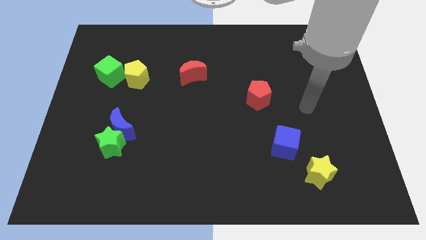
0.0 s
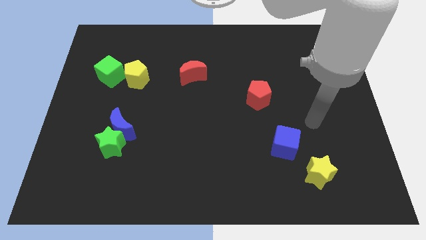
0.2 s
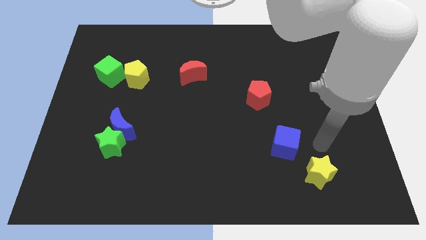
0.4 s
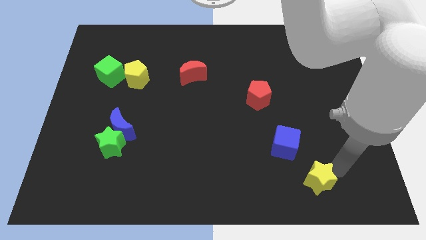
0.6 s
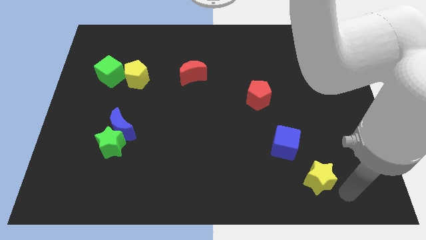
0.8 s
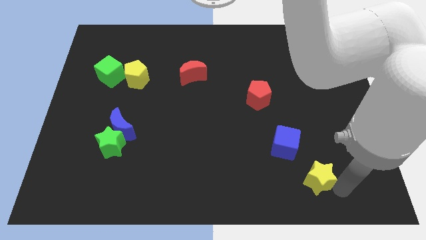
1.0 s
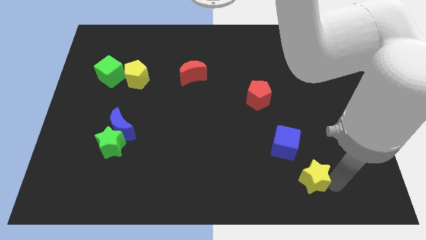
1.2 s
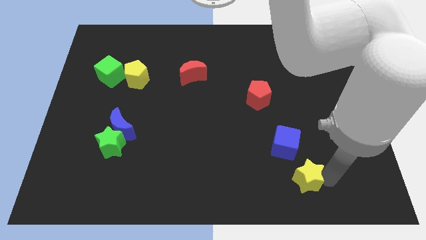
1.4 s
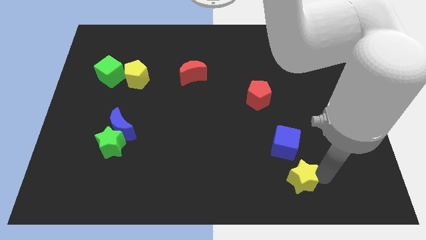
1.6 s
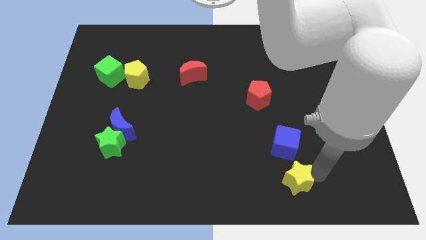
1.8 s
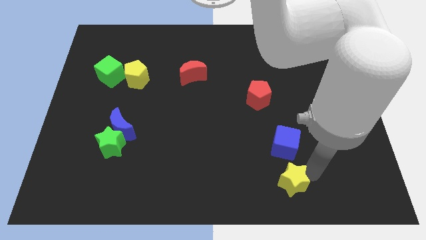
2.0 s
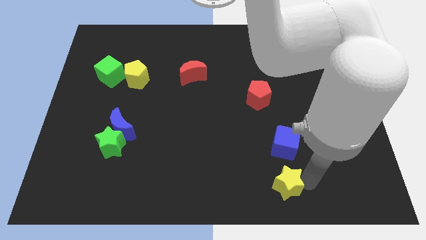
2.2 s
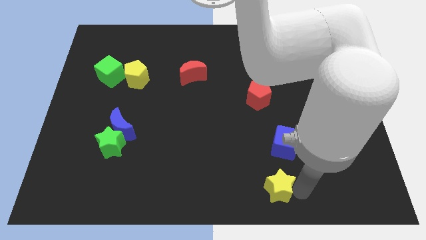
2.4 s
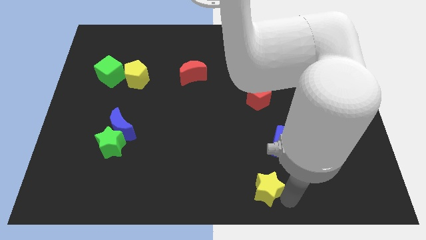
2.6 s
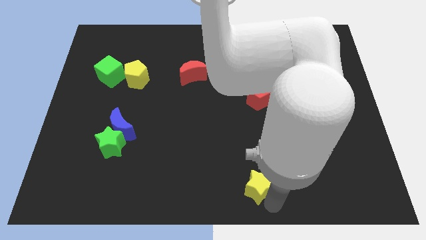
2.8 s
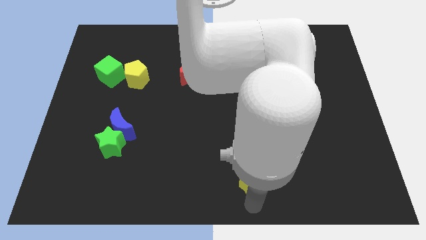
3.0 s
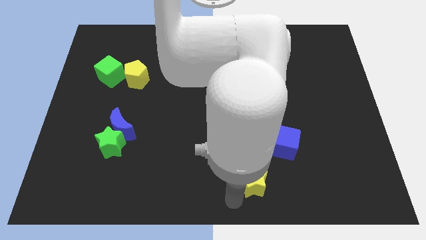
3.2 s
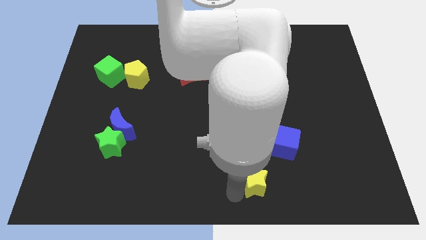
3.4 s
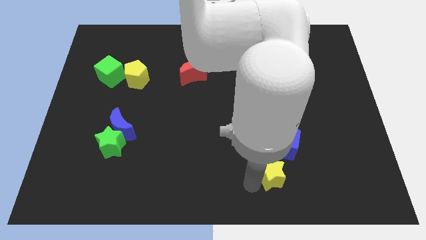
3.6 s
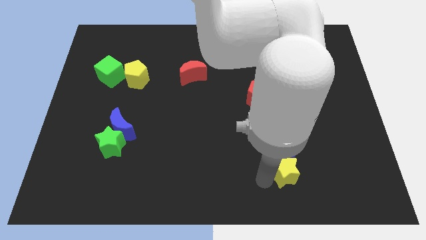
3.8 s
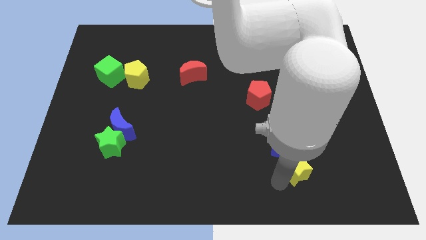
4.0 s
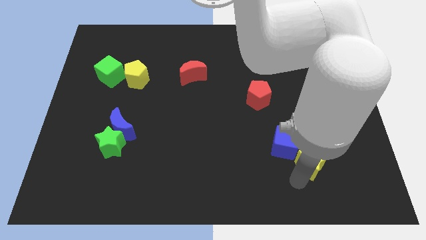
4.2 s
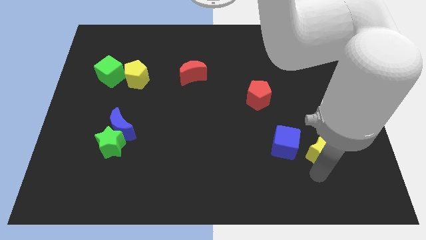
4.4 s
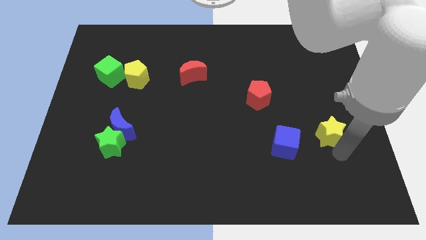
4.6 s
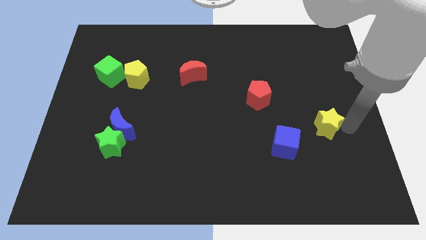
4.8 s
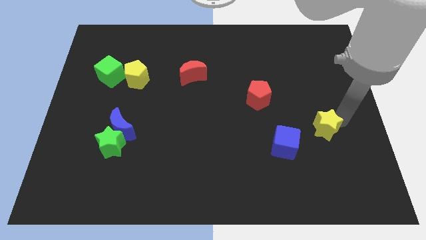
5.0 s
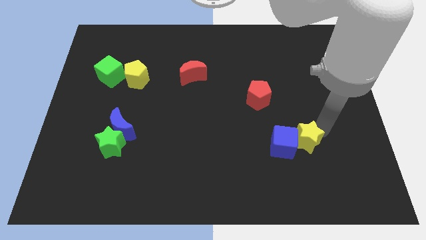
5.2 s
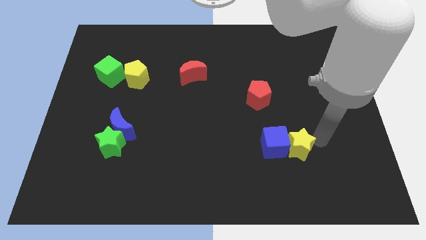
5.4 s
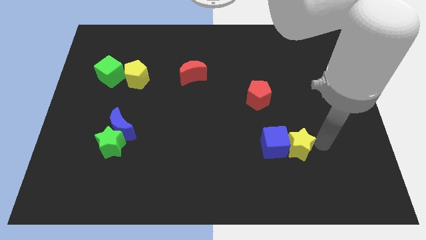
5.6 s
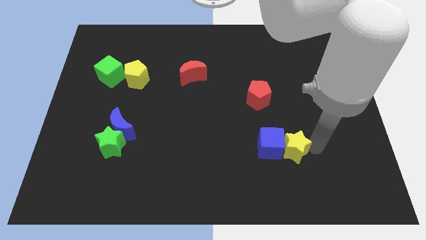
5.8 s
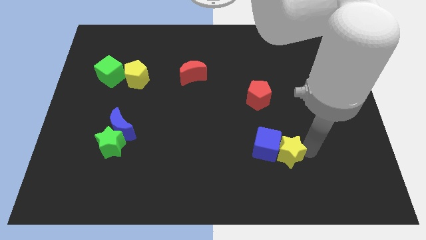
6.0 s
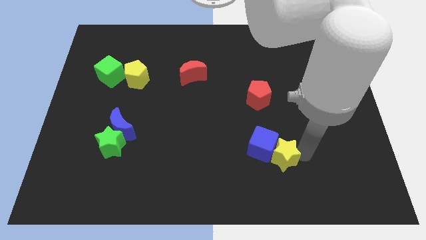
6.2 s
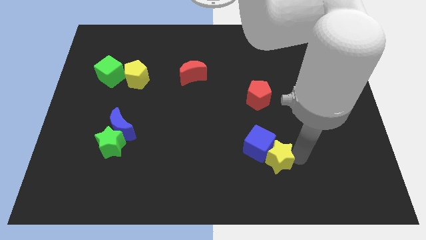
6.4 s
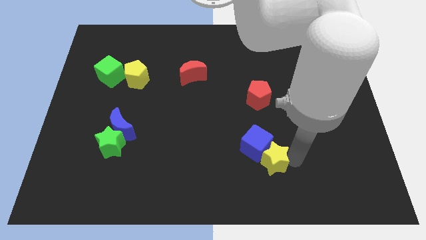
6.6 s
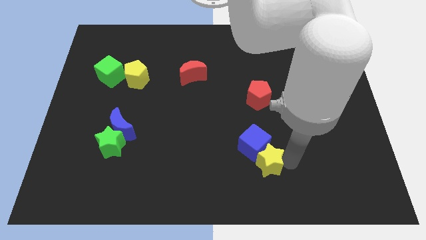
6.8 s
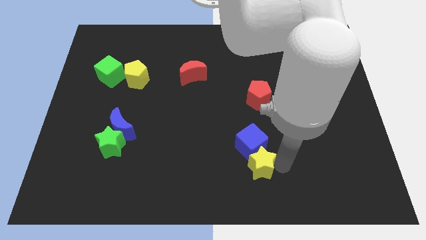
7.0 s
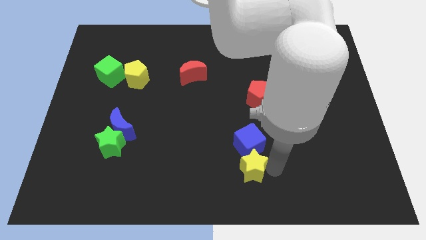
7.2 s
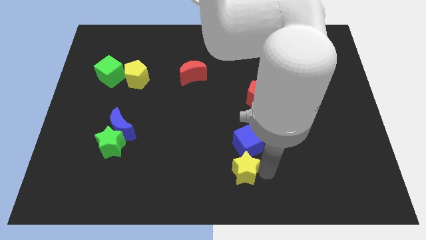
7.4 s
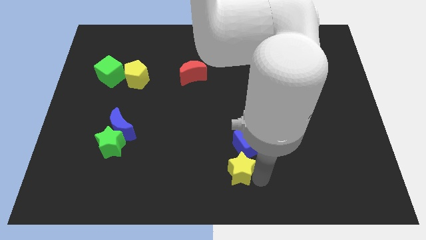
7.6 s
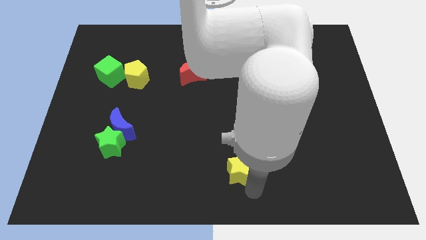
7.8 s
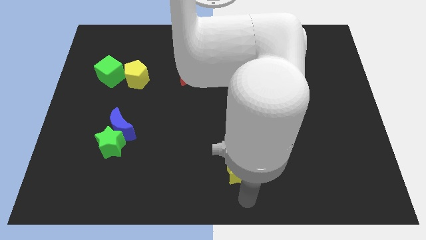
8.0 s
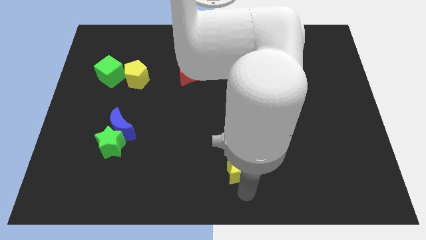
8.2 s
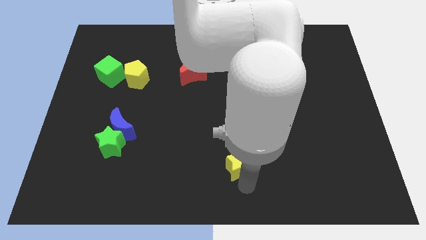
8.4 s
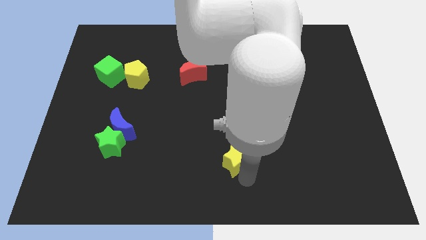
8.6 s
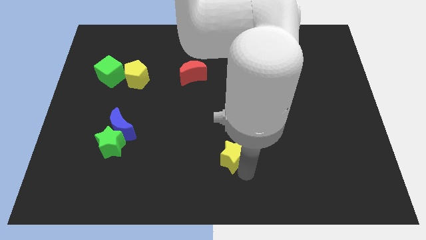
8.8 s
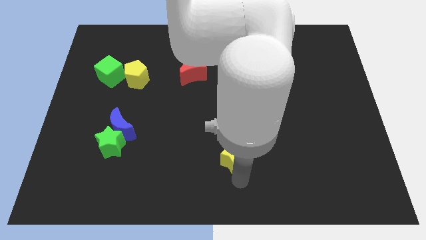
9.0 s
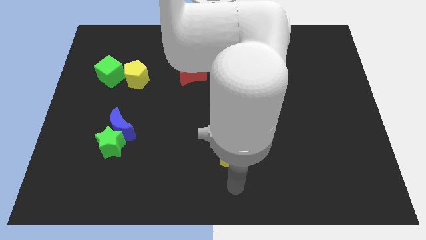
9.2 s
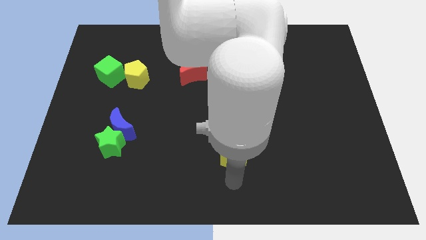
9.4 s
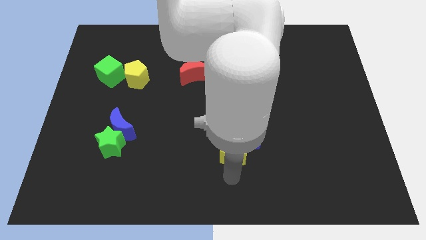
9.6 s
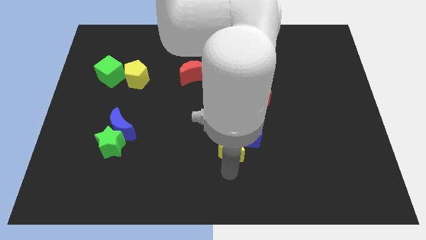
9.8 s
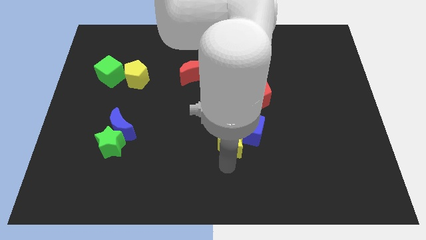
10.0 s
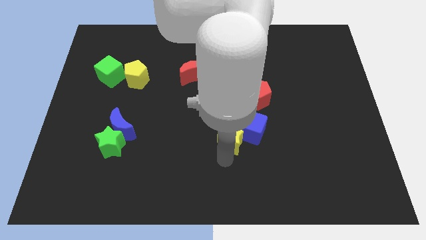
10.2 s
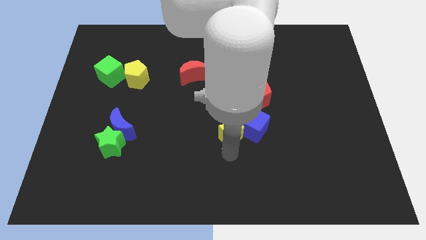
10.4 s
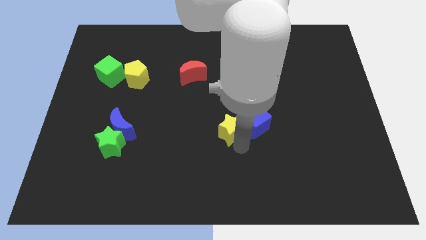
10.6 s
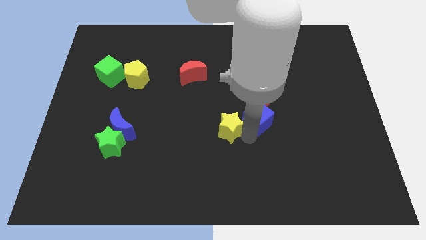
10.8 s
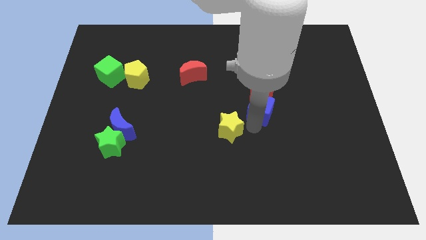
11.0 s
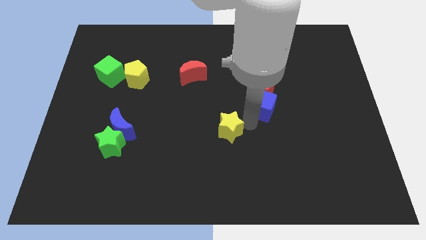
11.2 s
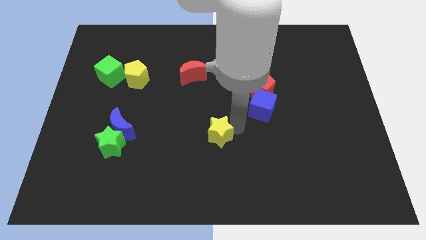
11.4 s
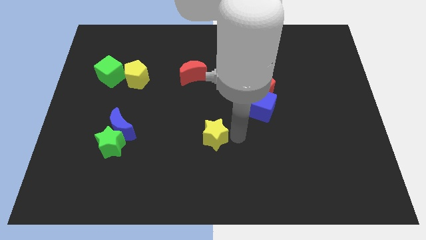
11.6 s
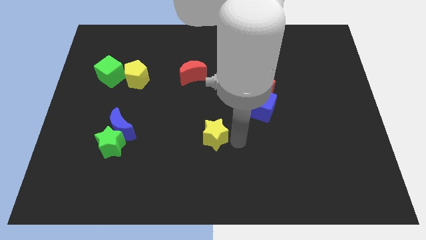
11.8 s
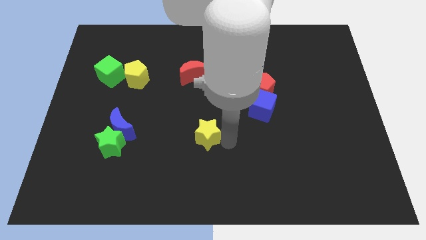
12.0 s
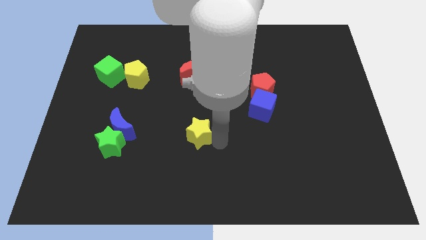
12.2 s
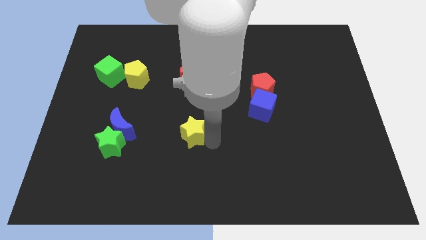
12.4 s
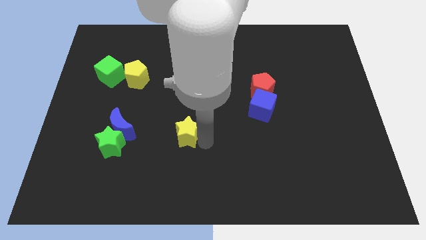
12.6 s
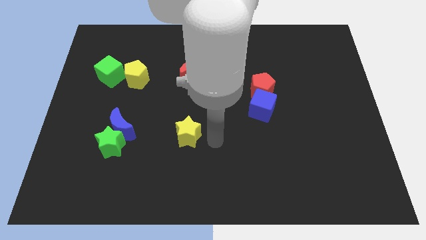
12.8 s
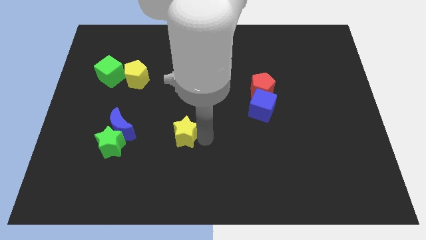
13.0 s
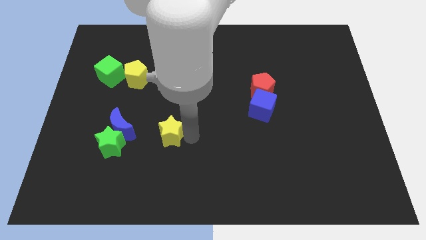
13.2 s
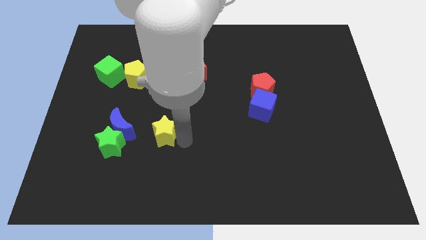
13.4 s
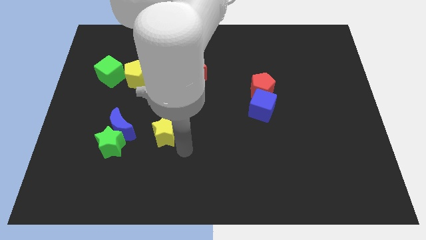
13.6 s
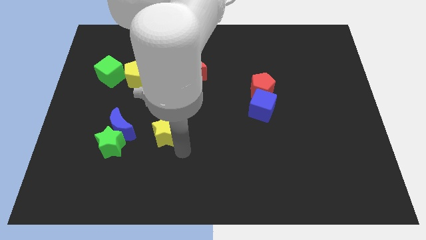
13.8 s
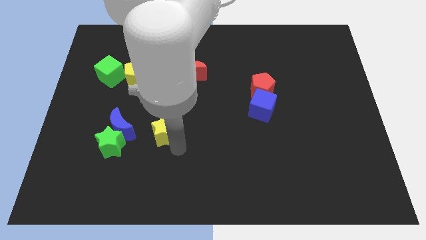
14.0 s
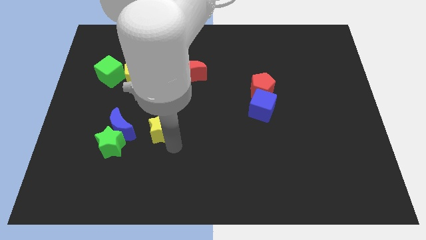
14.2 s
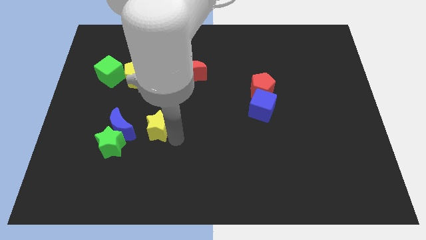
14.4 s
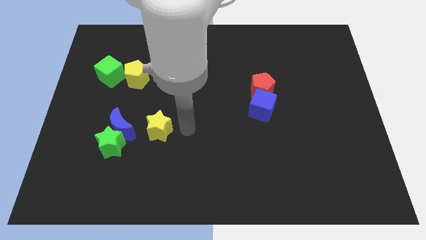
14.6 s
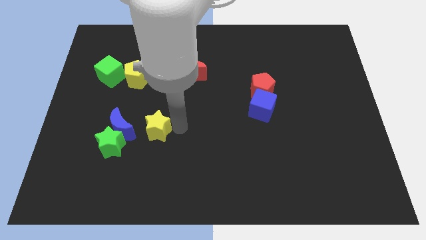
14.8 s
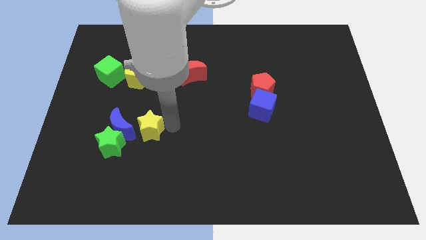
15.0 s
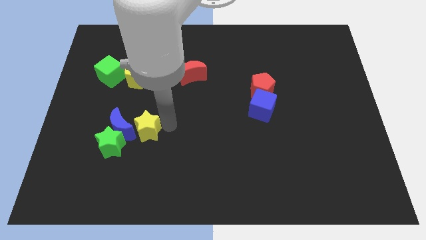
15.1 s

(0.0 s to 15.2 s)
slide the yellow star close to the blue moon
